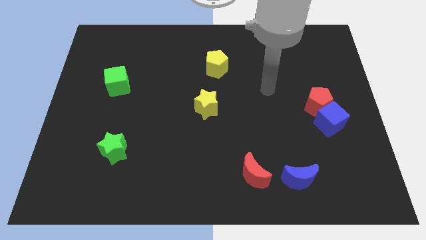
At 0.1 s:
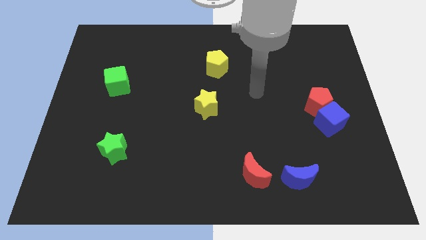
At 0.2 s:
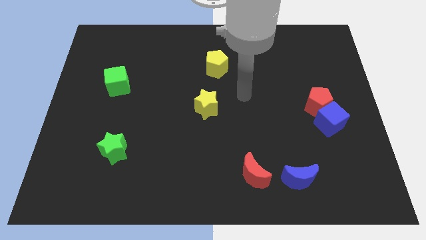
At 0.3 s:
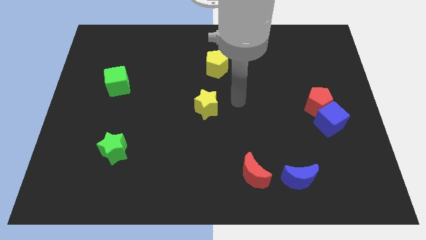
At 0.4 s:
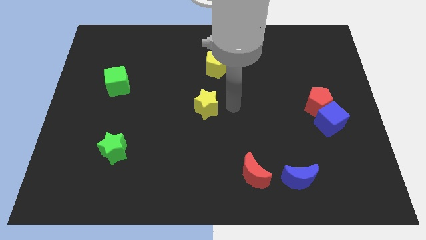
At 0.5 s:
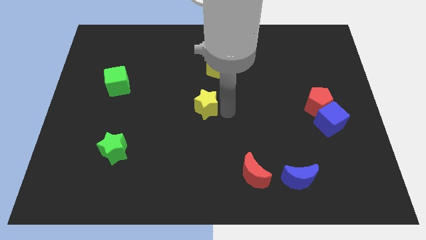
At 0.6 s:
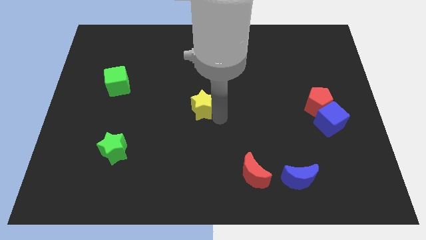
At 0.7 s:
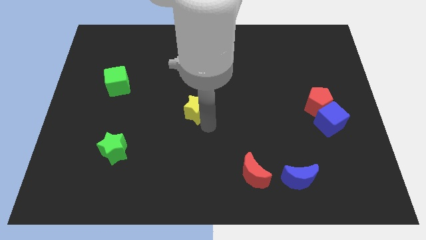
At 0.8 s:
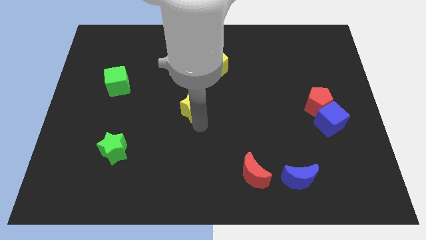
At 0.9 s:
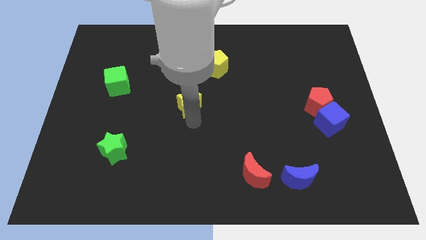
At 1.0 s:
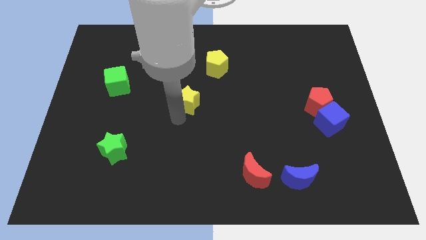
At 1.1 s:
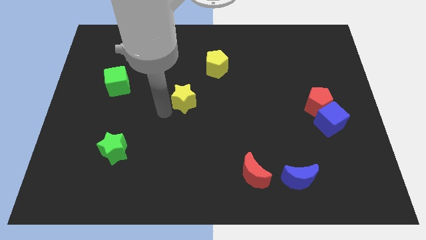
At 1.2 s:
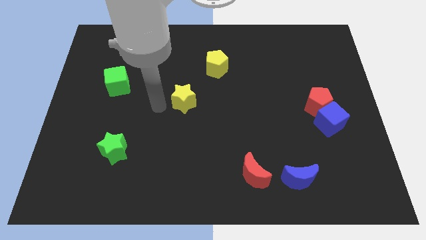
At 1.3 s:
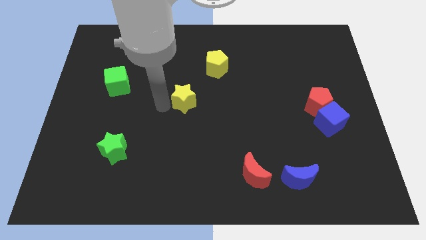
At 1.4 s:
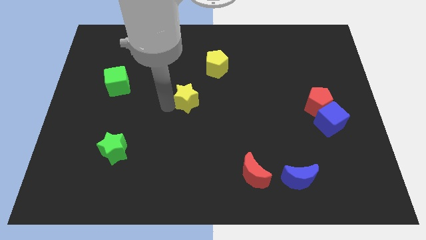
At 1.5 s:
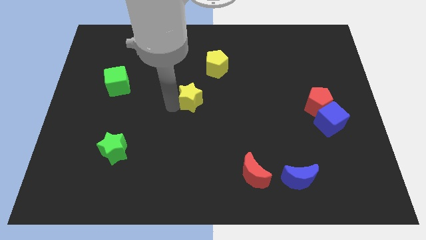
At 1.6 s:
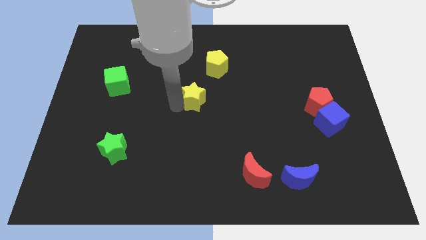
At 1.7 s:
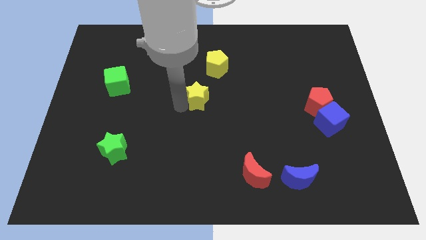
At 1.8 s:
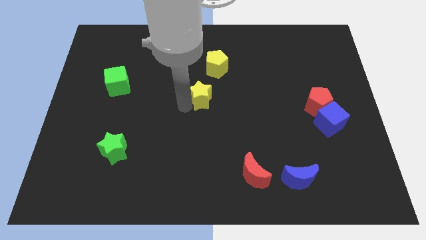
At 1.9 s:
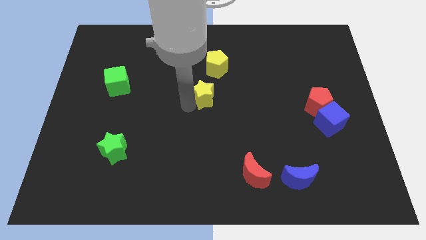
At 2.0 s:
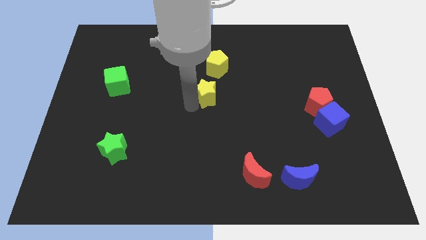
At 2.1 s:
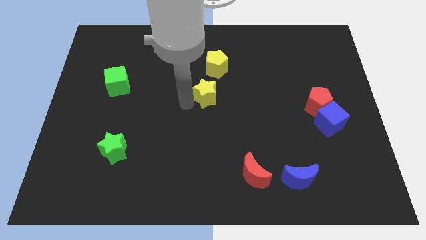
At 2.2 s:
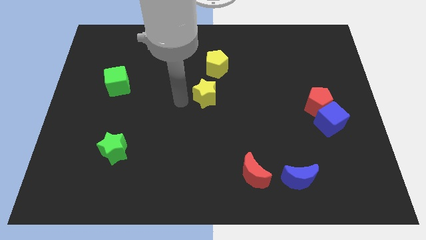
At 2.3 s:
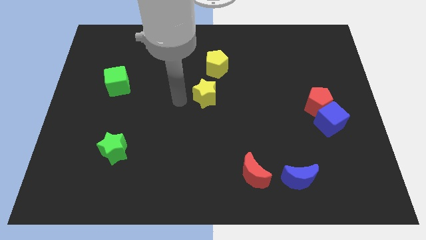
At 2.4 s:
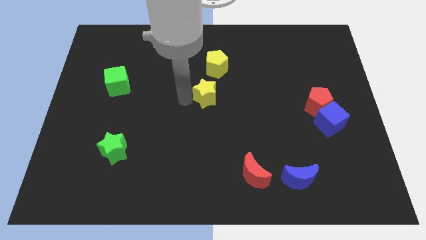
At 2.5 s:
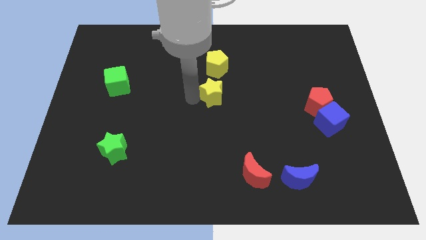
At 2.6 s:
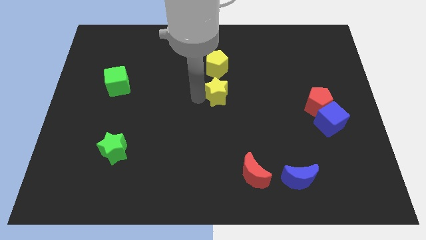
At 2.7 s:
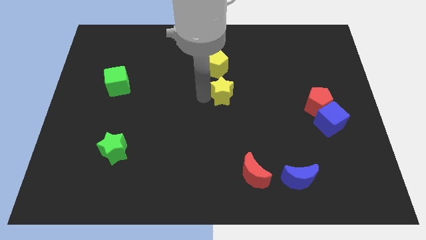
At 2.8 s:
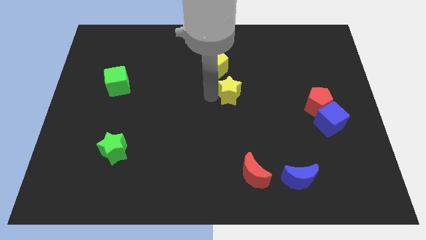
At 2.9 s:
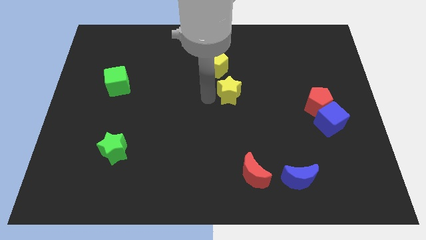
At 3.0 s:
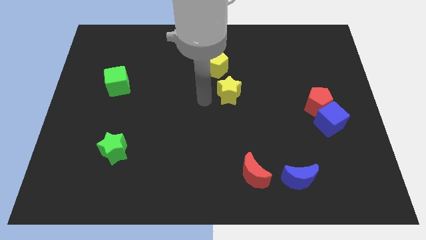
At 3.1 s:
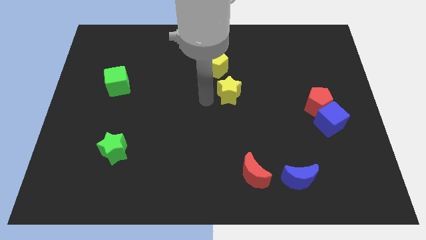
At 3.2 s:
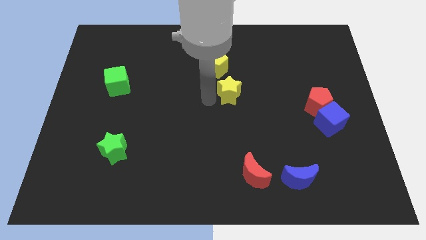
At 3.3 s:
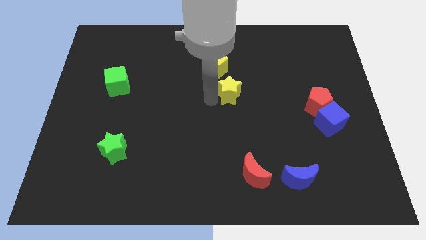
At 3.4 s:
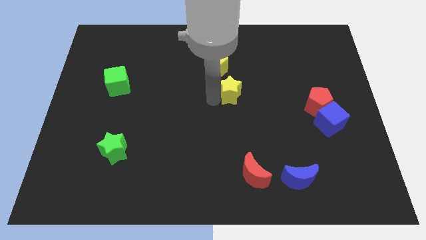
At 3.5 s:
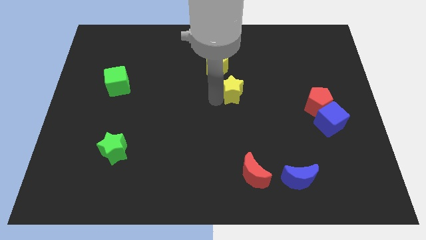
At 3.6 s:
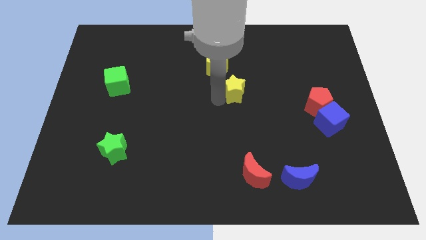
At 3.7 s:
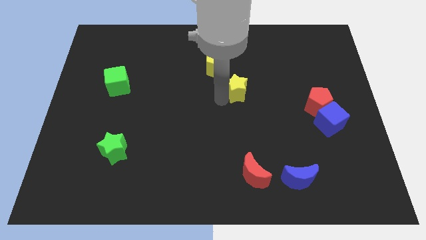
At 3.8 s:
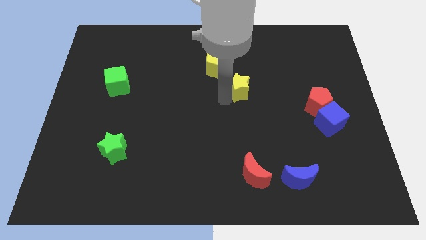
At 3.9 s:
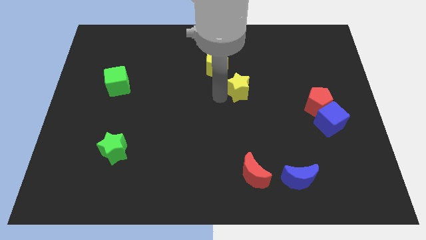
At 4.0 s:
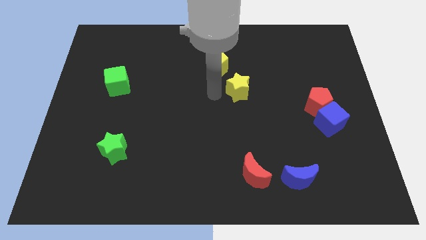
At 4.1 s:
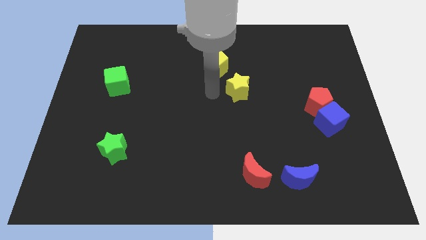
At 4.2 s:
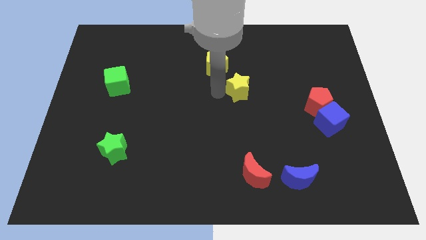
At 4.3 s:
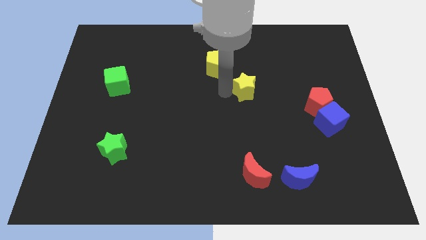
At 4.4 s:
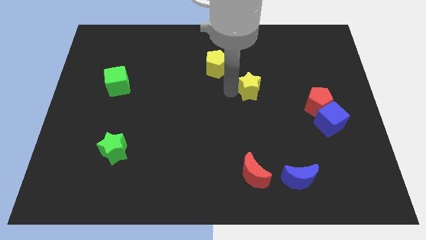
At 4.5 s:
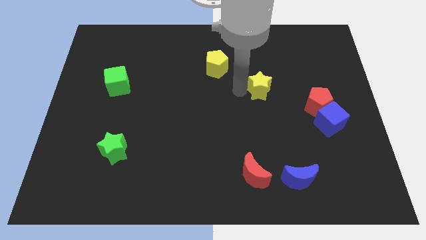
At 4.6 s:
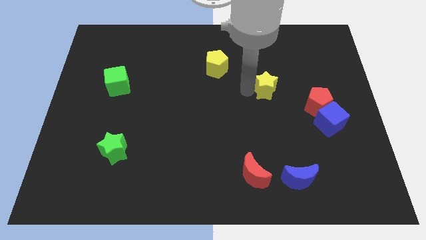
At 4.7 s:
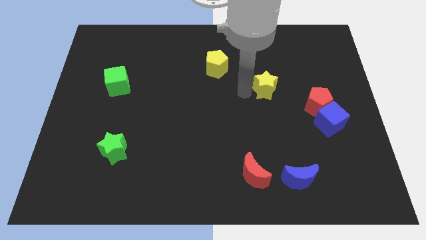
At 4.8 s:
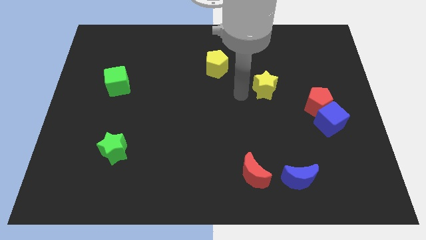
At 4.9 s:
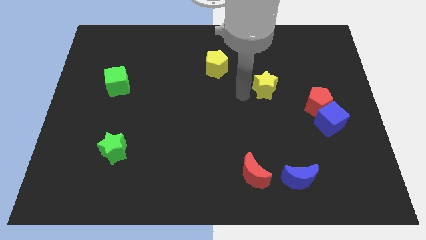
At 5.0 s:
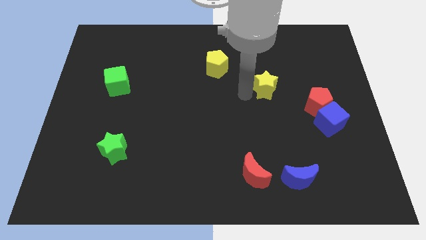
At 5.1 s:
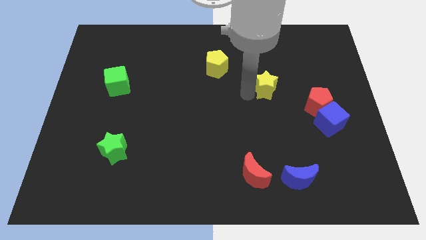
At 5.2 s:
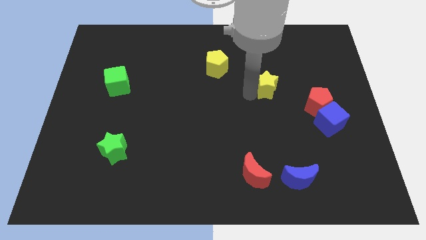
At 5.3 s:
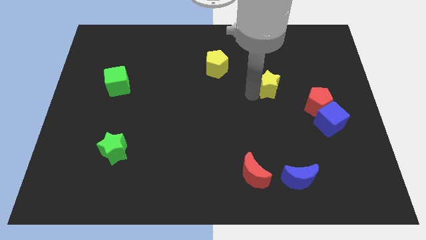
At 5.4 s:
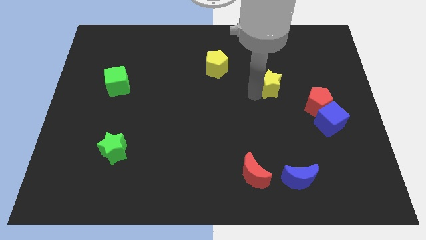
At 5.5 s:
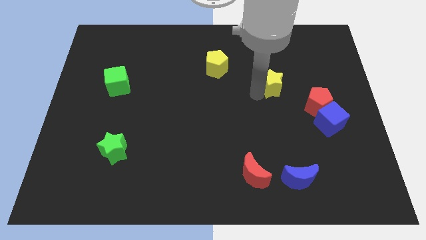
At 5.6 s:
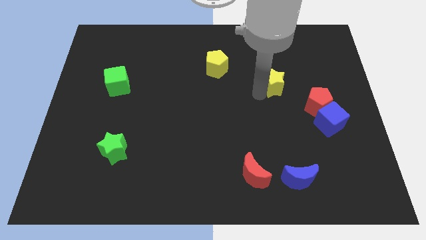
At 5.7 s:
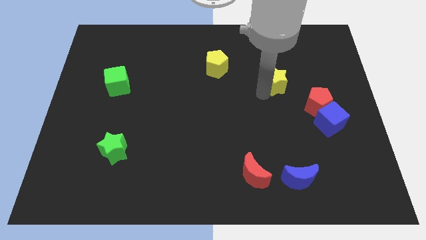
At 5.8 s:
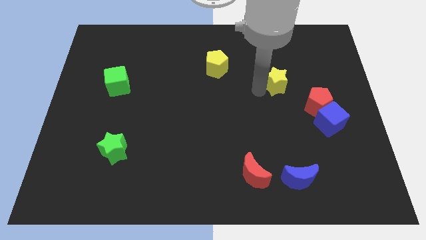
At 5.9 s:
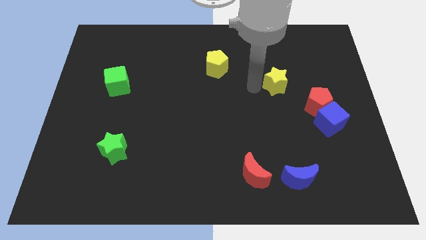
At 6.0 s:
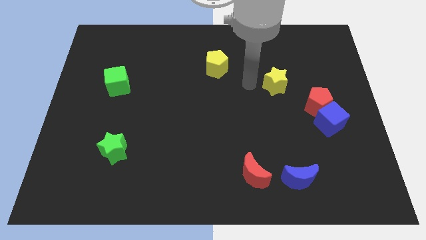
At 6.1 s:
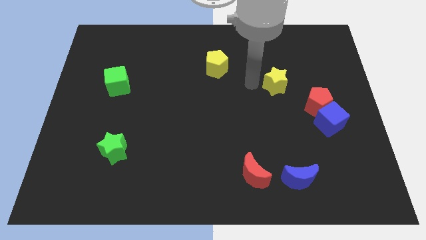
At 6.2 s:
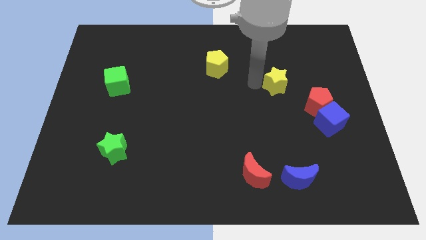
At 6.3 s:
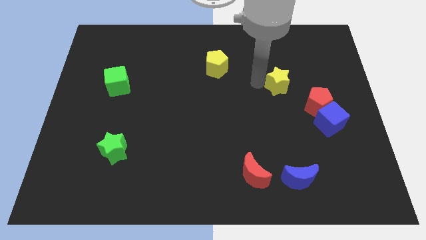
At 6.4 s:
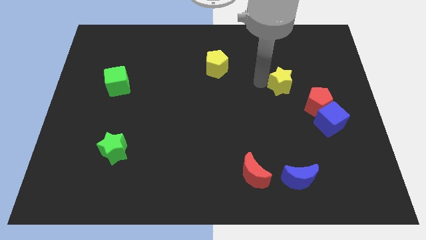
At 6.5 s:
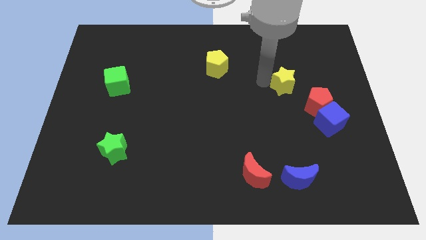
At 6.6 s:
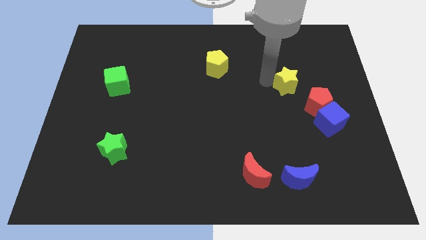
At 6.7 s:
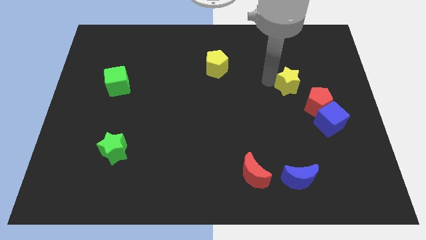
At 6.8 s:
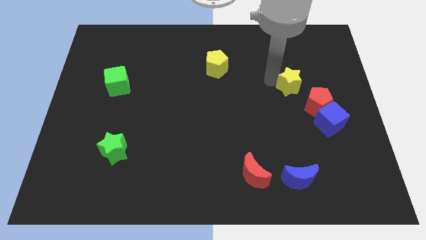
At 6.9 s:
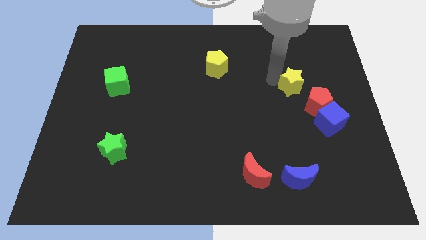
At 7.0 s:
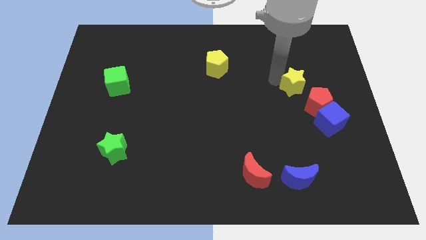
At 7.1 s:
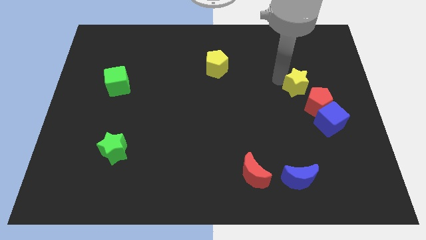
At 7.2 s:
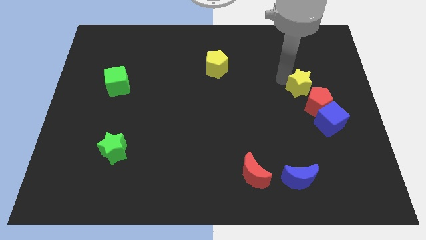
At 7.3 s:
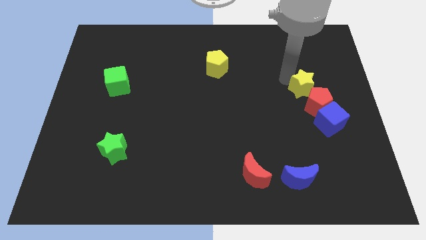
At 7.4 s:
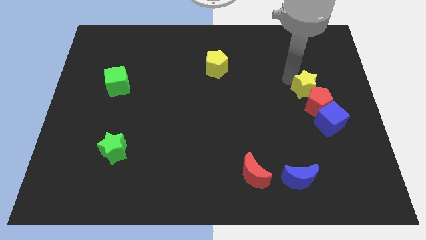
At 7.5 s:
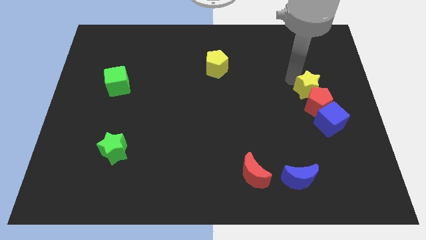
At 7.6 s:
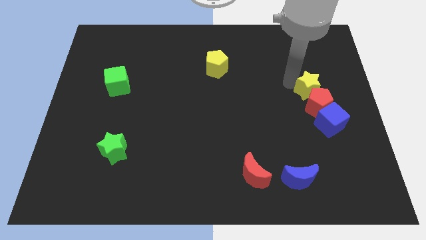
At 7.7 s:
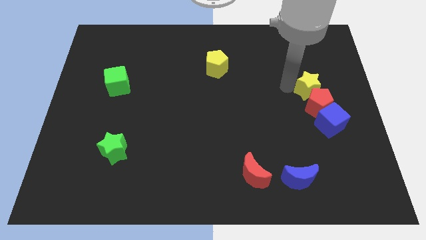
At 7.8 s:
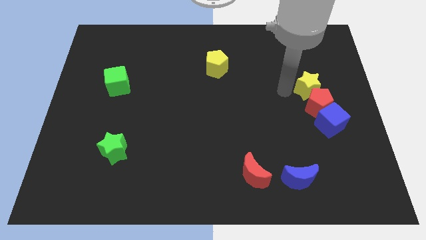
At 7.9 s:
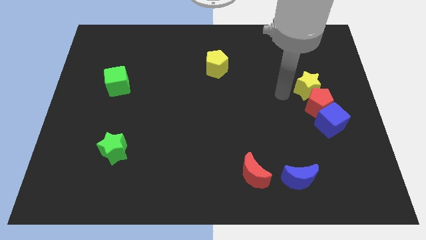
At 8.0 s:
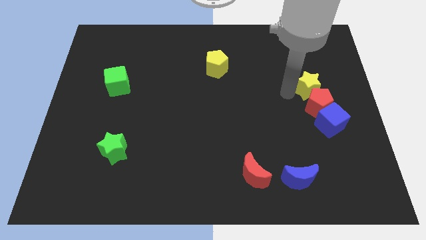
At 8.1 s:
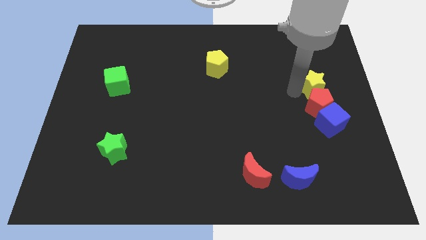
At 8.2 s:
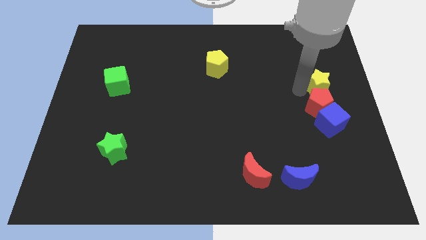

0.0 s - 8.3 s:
slide the yellow star to the right side
